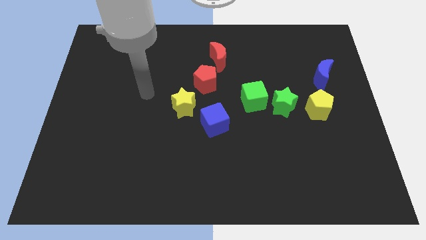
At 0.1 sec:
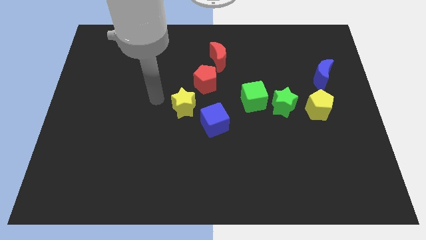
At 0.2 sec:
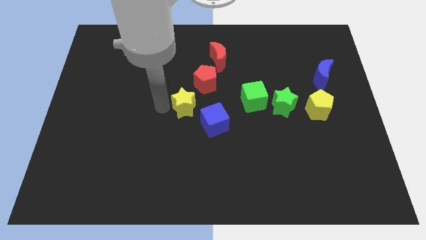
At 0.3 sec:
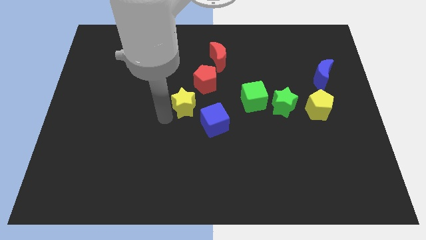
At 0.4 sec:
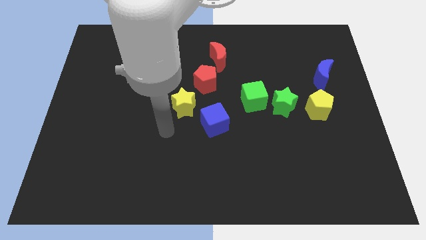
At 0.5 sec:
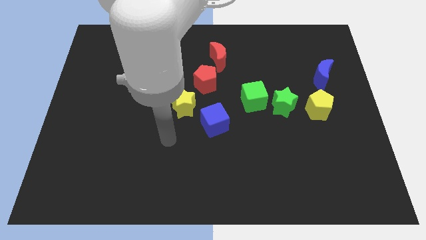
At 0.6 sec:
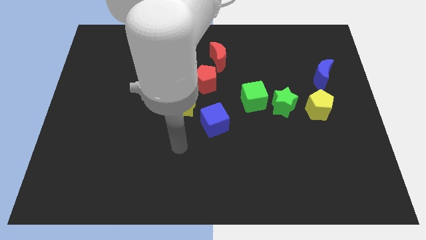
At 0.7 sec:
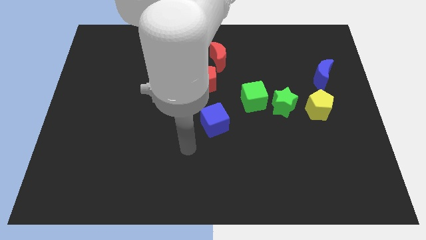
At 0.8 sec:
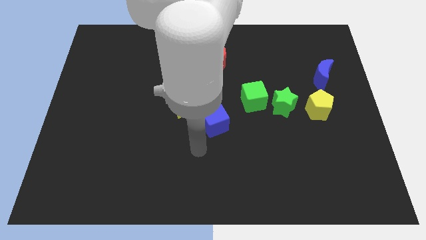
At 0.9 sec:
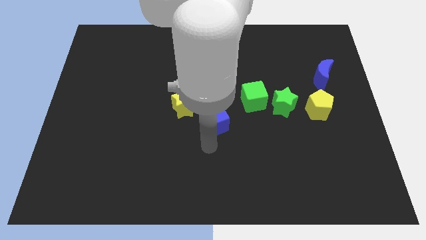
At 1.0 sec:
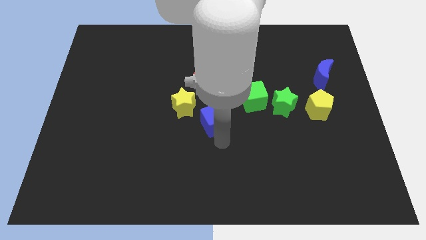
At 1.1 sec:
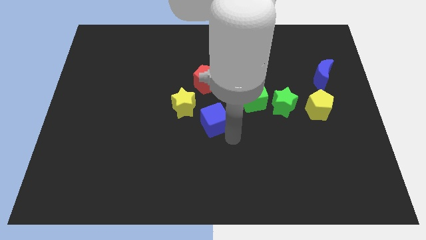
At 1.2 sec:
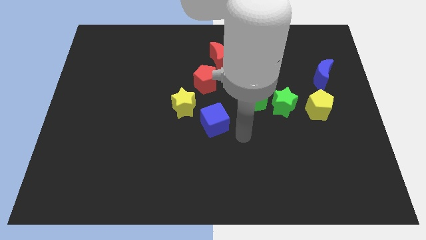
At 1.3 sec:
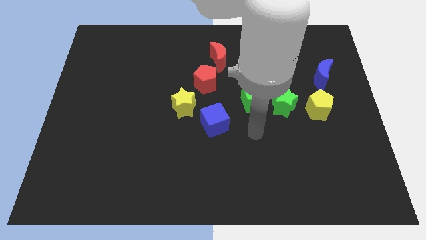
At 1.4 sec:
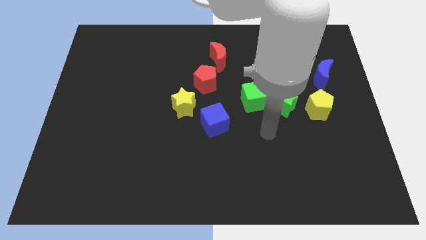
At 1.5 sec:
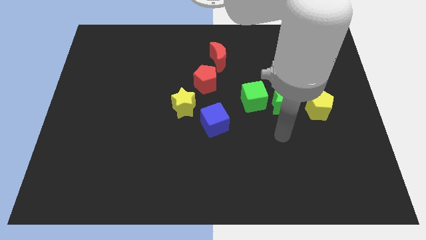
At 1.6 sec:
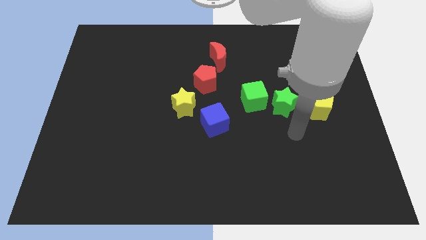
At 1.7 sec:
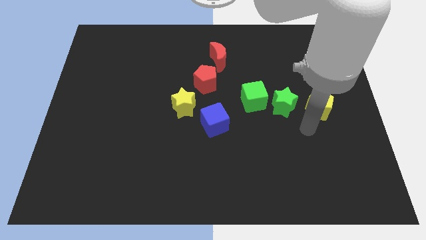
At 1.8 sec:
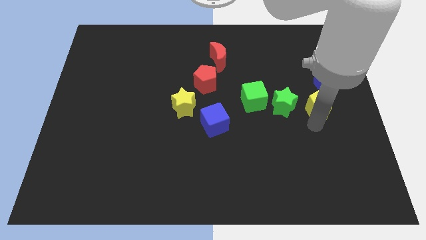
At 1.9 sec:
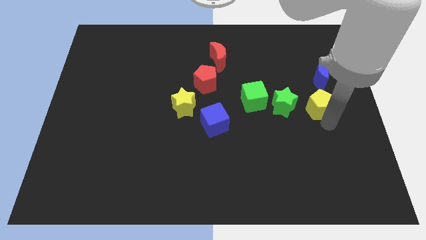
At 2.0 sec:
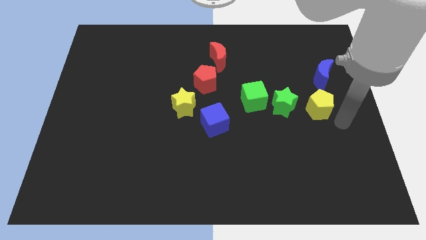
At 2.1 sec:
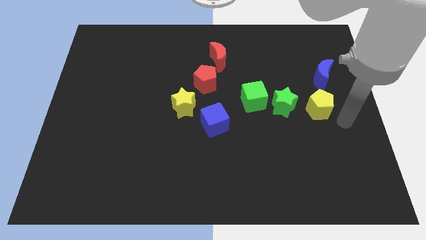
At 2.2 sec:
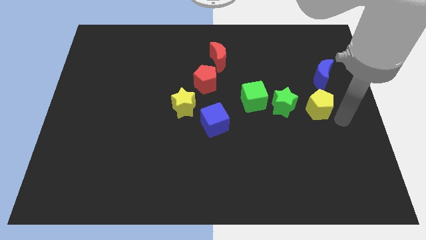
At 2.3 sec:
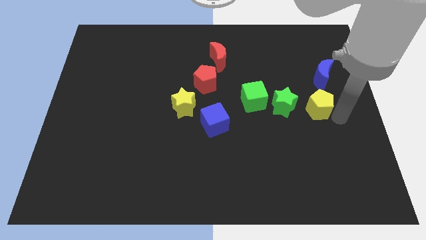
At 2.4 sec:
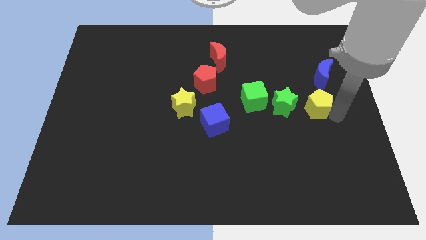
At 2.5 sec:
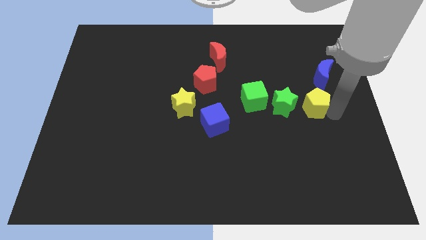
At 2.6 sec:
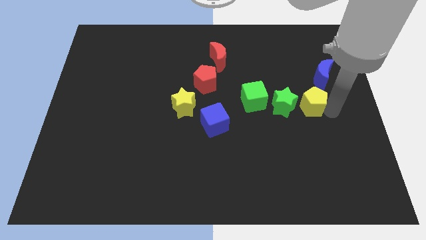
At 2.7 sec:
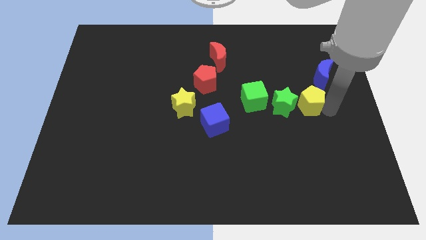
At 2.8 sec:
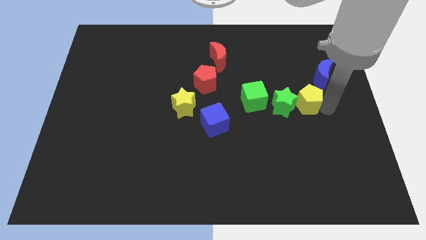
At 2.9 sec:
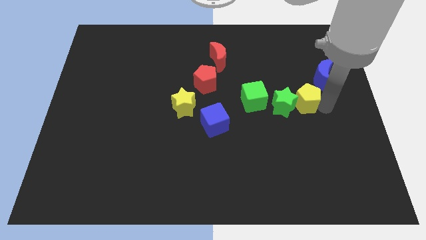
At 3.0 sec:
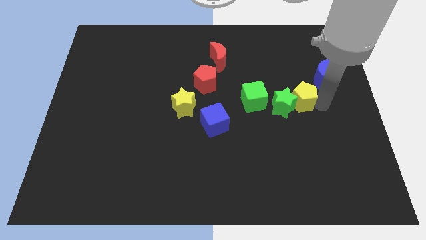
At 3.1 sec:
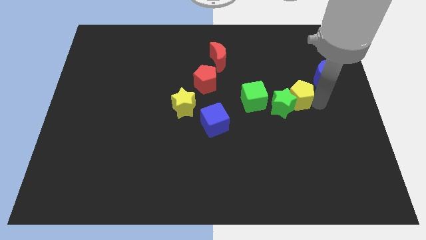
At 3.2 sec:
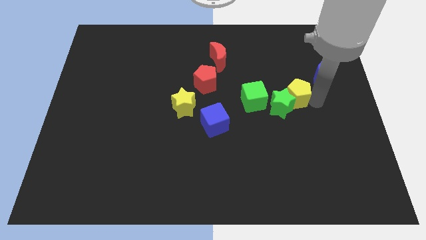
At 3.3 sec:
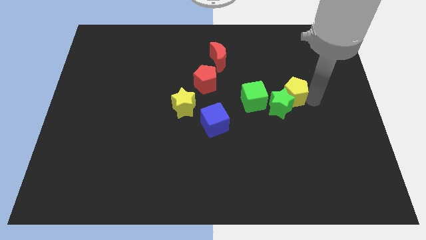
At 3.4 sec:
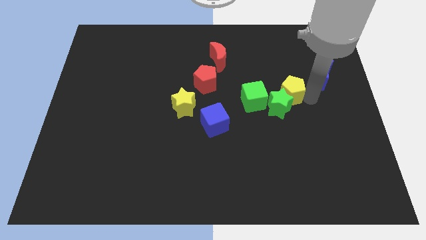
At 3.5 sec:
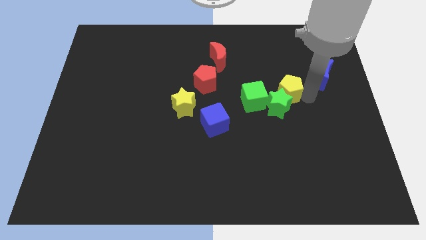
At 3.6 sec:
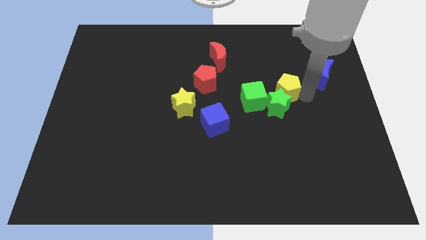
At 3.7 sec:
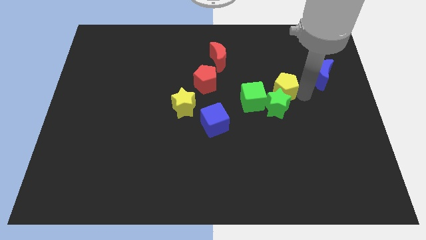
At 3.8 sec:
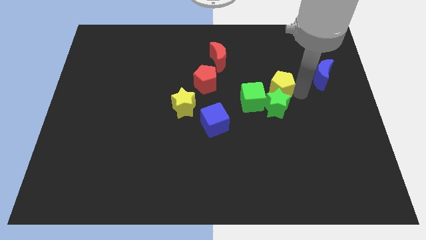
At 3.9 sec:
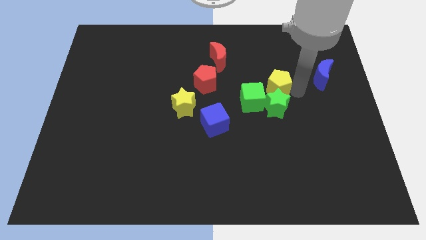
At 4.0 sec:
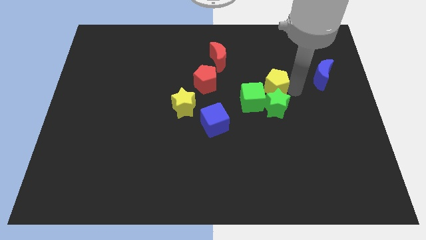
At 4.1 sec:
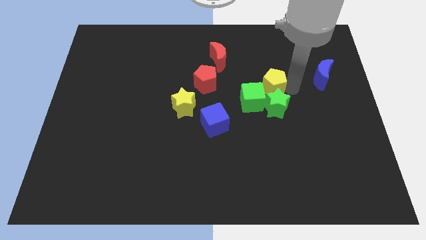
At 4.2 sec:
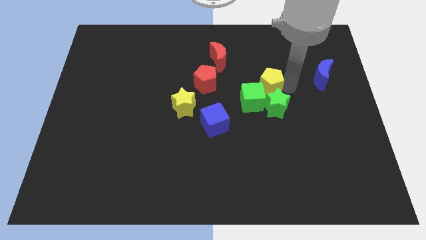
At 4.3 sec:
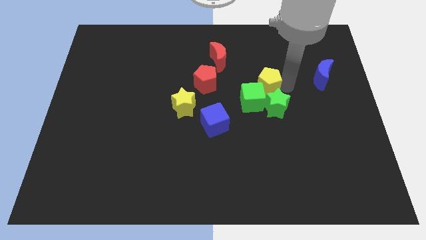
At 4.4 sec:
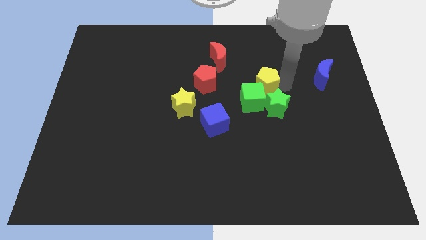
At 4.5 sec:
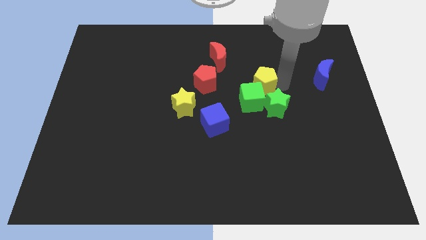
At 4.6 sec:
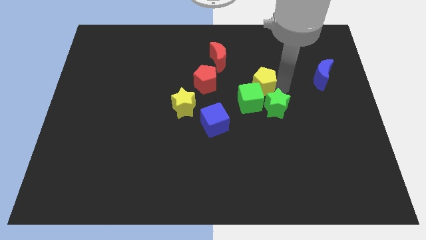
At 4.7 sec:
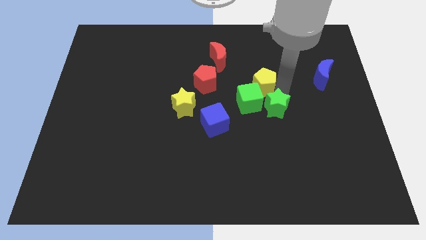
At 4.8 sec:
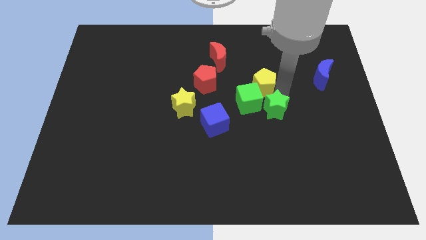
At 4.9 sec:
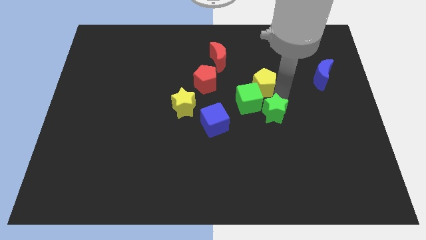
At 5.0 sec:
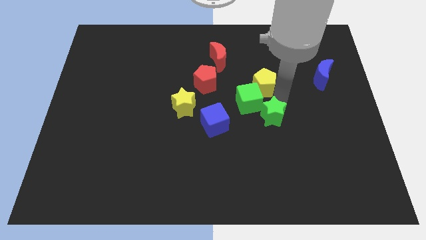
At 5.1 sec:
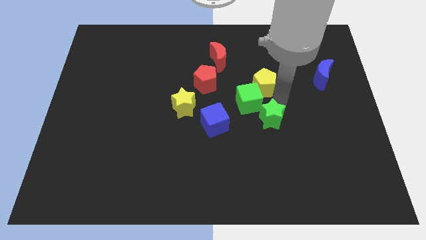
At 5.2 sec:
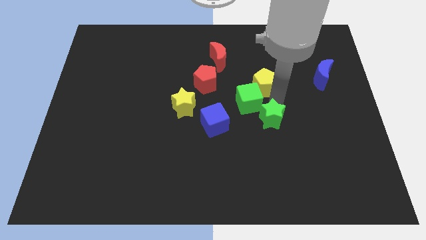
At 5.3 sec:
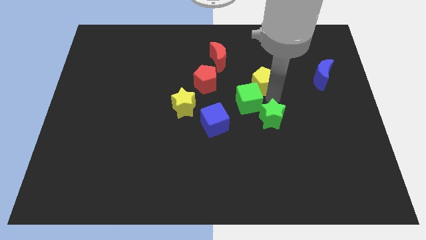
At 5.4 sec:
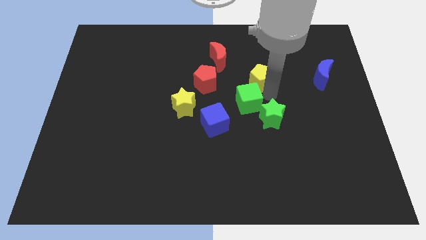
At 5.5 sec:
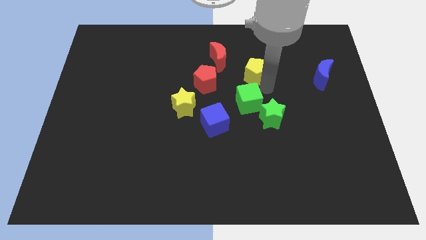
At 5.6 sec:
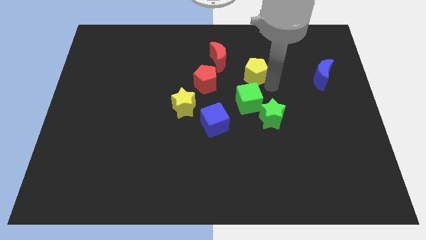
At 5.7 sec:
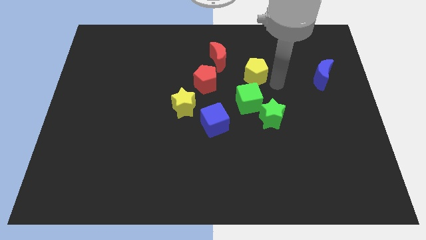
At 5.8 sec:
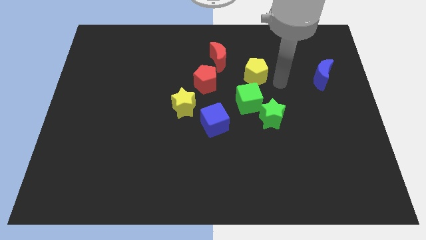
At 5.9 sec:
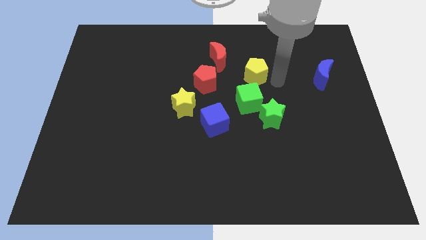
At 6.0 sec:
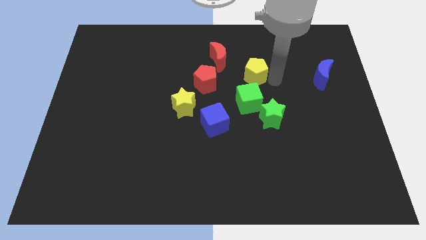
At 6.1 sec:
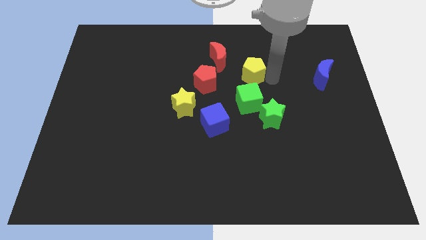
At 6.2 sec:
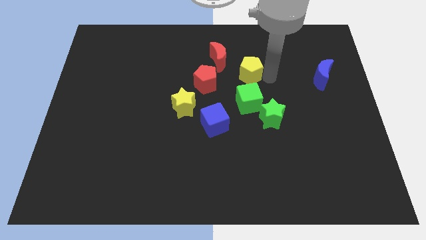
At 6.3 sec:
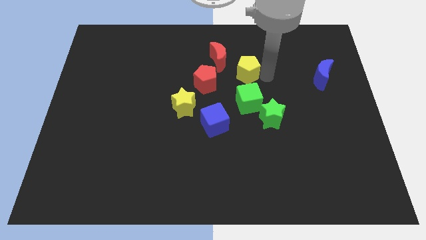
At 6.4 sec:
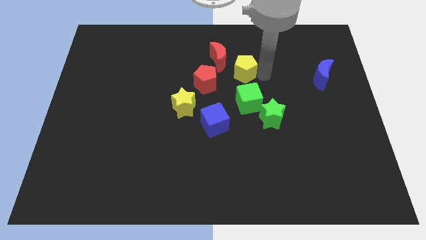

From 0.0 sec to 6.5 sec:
move the yellow pentagon diagonally up and to the right of the red pentagon

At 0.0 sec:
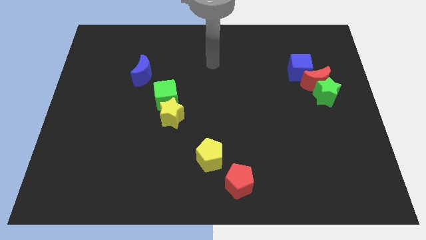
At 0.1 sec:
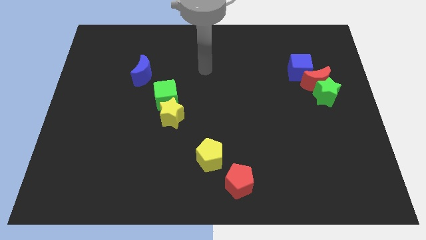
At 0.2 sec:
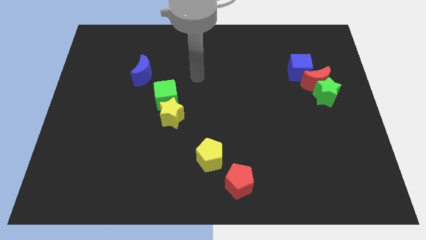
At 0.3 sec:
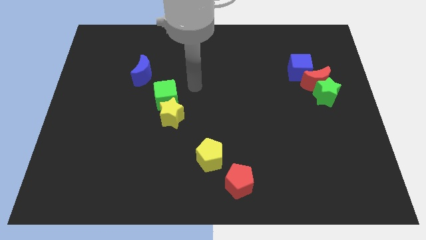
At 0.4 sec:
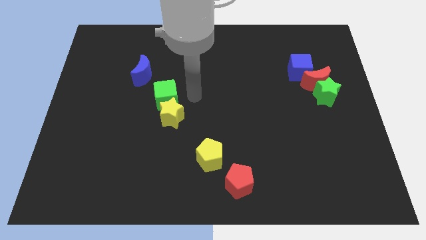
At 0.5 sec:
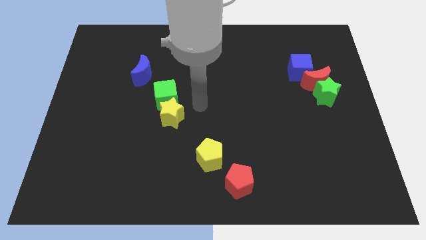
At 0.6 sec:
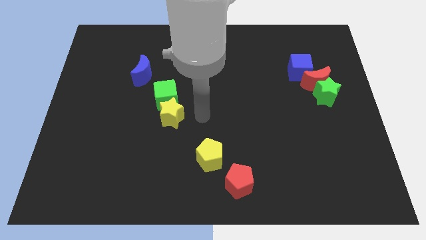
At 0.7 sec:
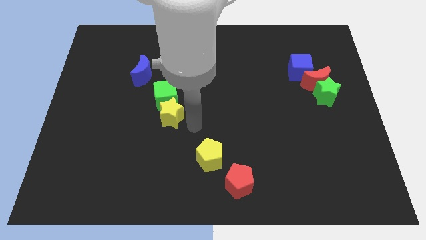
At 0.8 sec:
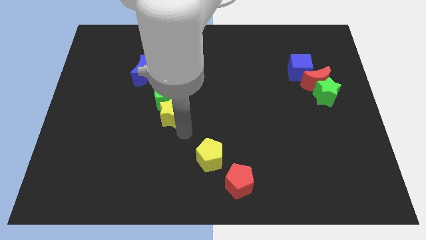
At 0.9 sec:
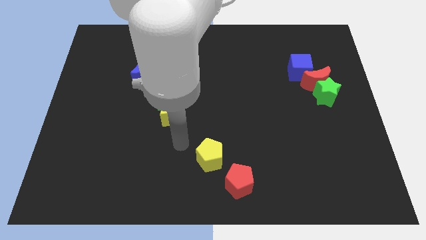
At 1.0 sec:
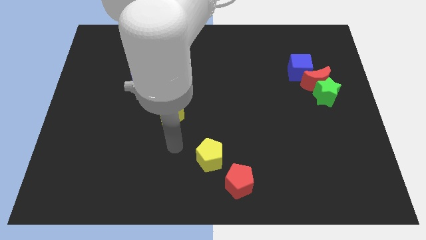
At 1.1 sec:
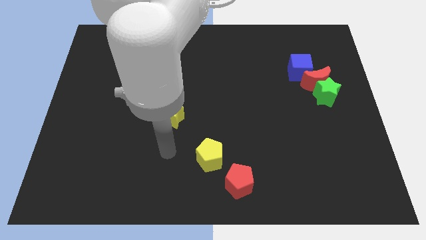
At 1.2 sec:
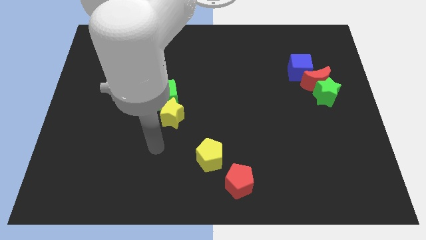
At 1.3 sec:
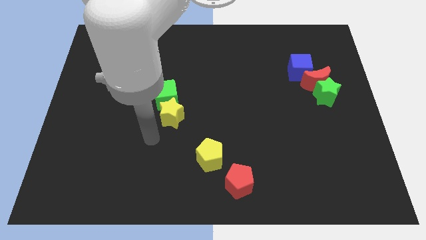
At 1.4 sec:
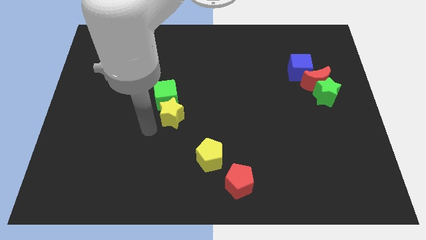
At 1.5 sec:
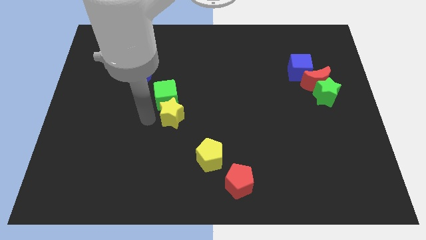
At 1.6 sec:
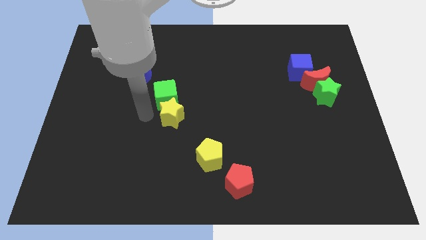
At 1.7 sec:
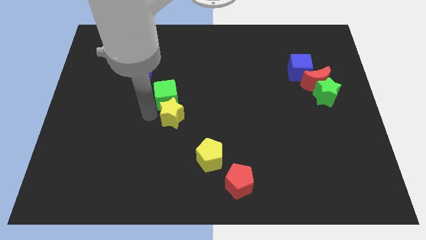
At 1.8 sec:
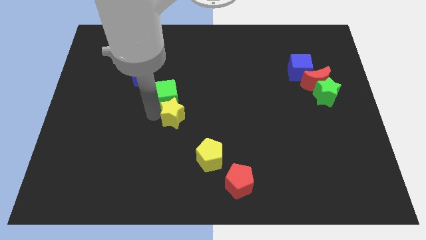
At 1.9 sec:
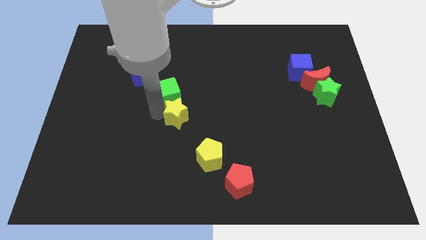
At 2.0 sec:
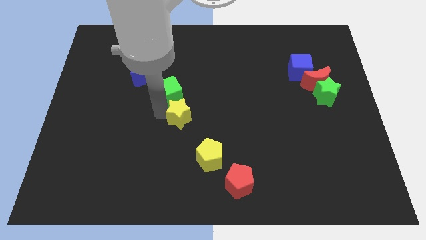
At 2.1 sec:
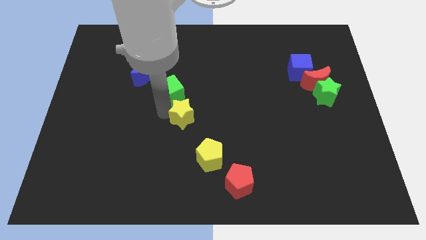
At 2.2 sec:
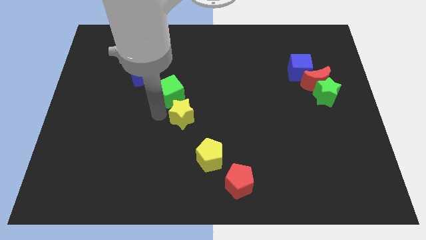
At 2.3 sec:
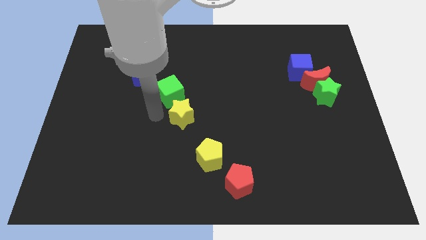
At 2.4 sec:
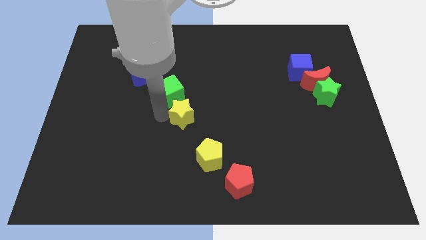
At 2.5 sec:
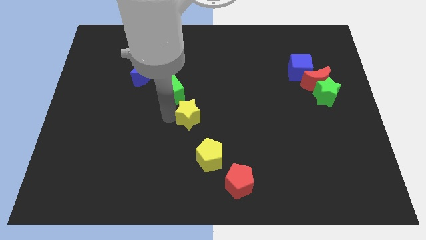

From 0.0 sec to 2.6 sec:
slide the yellow star to the top of the yellow pentagon
